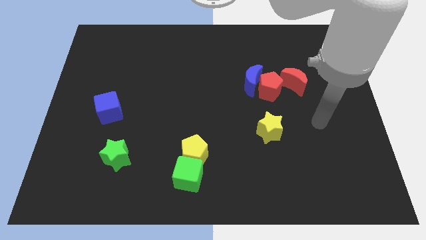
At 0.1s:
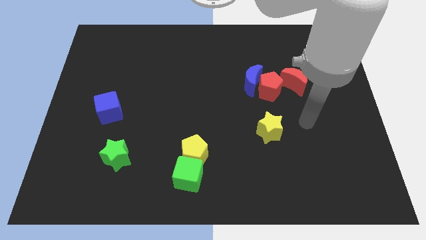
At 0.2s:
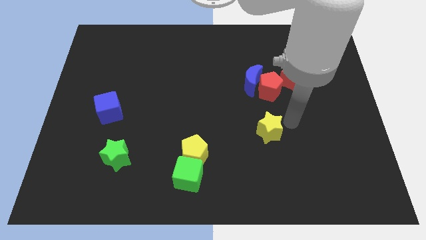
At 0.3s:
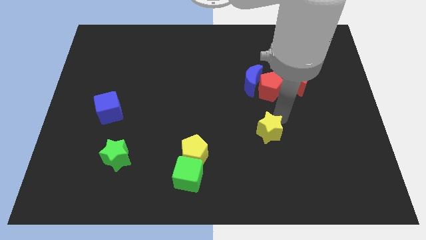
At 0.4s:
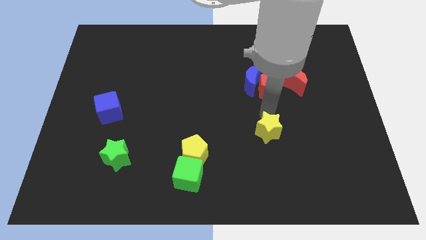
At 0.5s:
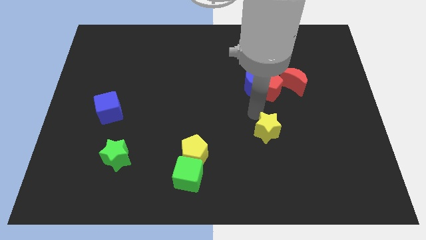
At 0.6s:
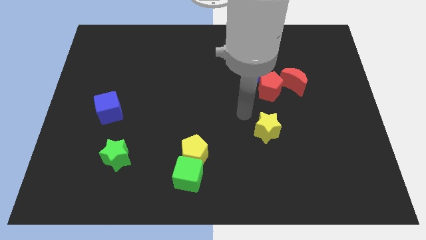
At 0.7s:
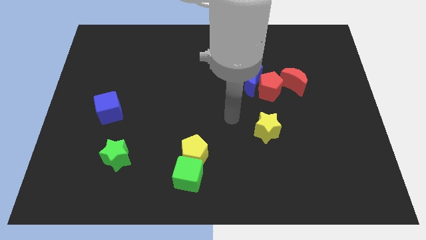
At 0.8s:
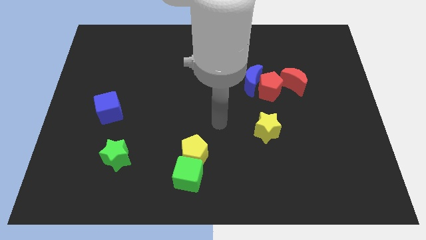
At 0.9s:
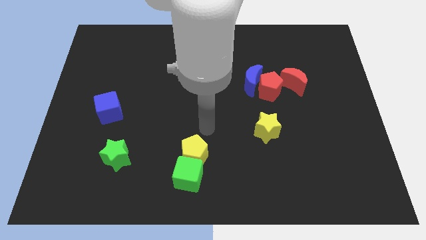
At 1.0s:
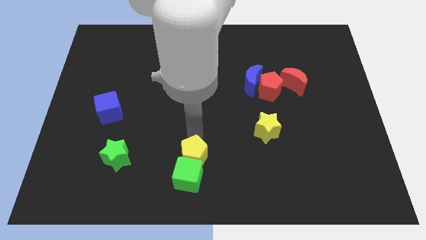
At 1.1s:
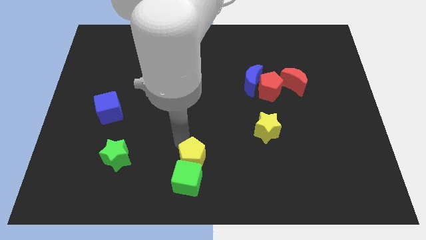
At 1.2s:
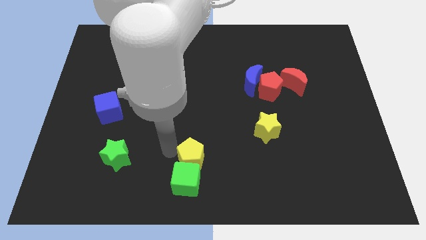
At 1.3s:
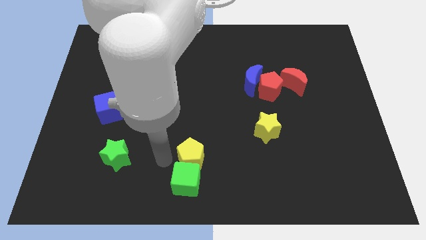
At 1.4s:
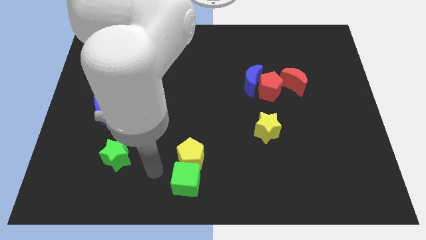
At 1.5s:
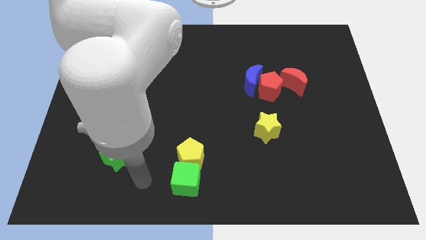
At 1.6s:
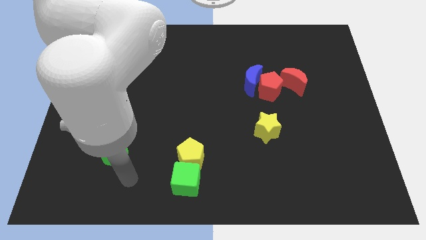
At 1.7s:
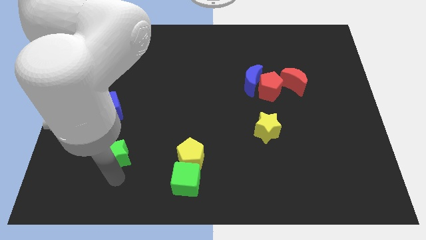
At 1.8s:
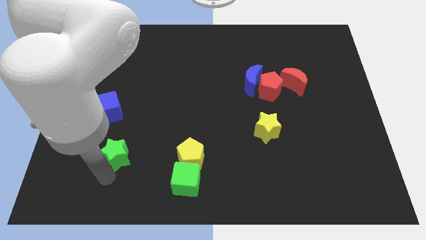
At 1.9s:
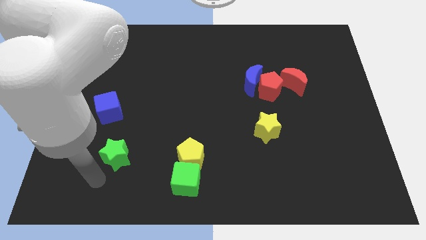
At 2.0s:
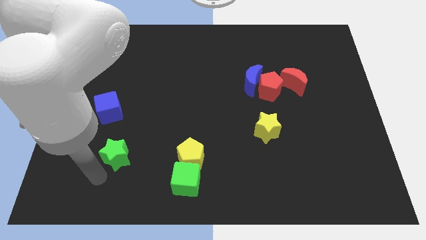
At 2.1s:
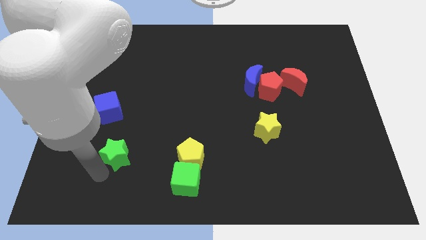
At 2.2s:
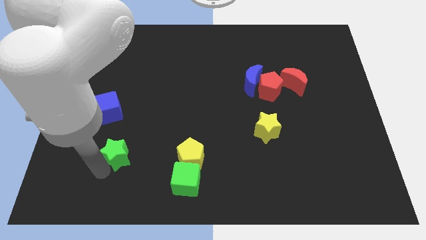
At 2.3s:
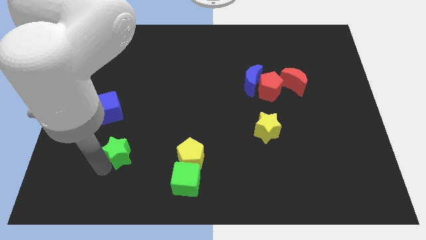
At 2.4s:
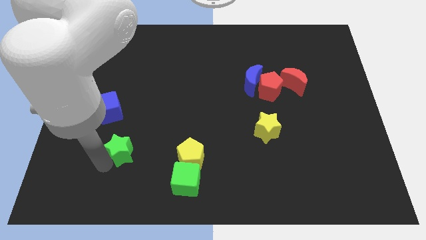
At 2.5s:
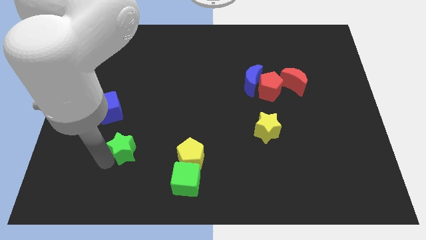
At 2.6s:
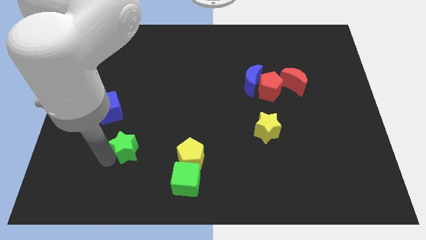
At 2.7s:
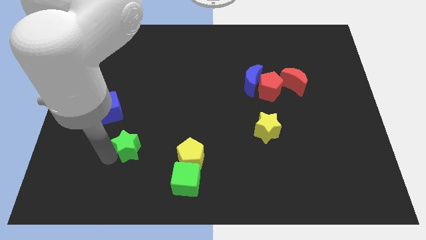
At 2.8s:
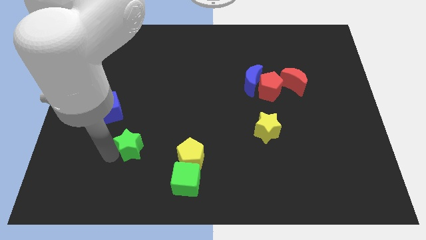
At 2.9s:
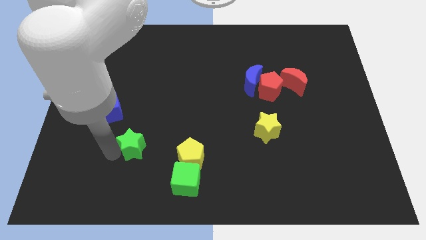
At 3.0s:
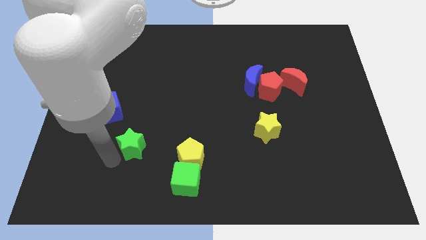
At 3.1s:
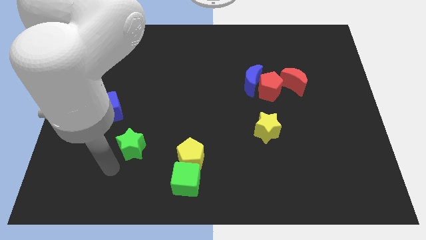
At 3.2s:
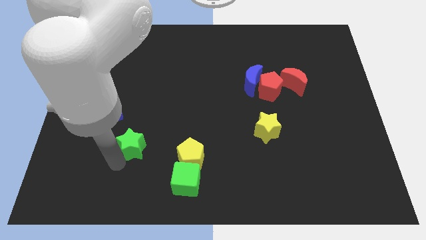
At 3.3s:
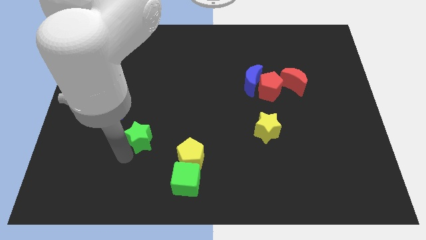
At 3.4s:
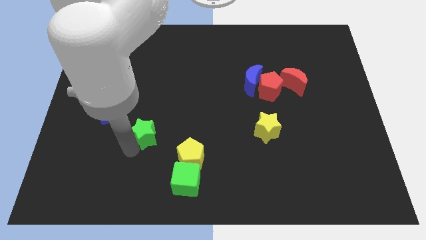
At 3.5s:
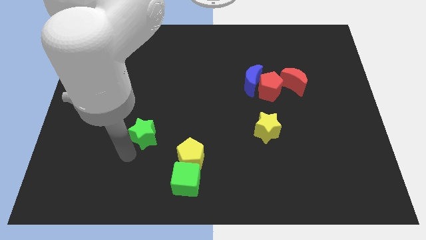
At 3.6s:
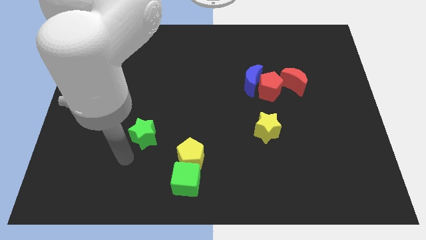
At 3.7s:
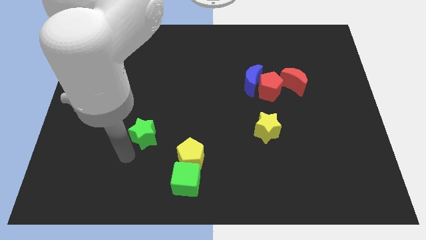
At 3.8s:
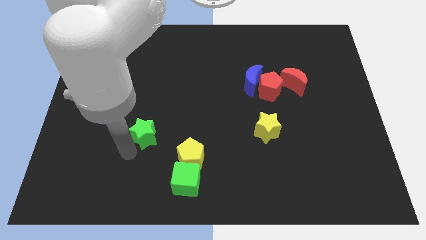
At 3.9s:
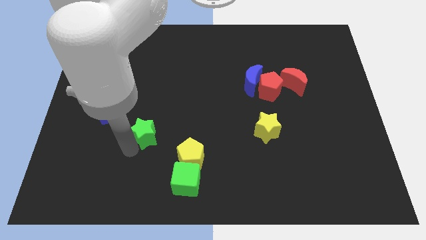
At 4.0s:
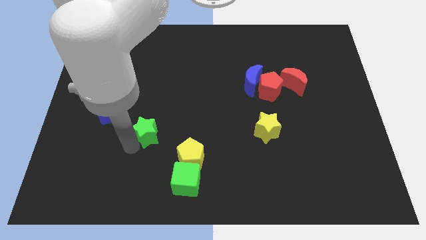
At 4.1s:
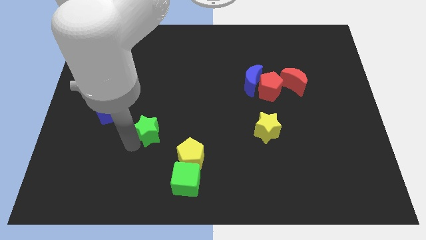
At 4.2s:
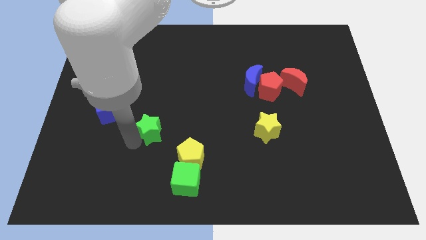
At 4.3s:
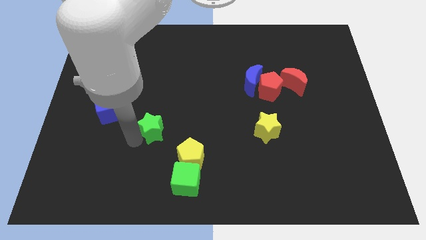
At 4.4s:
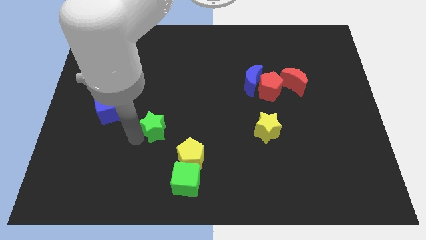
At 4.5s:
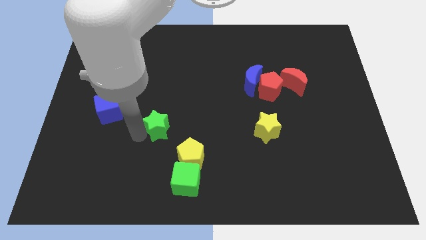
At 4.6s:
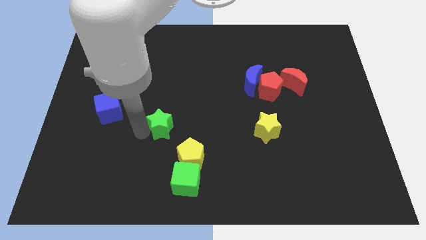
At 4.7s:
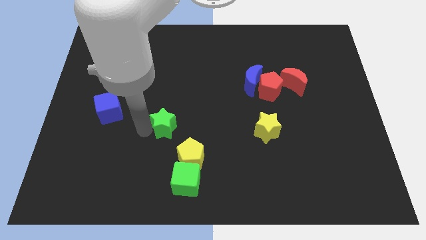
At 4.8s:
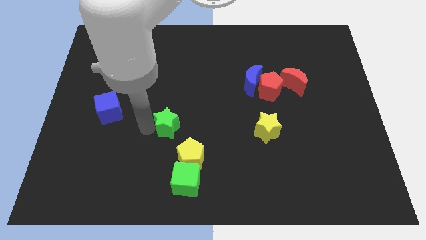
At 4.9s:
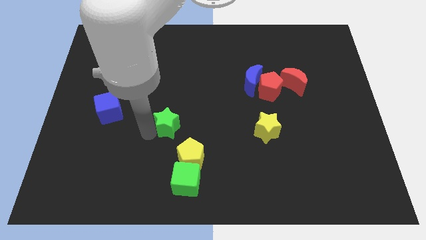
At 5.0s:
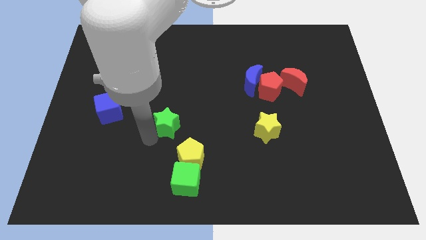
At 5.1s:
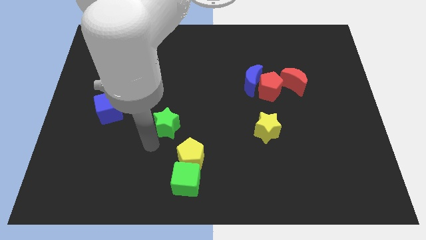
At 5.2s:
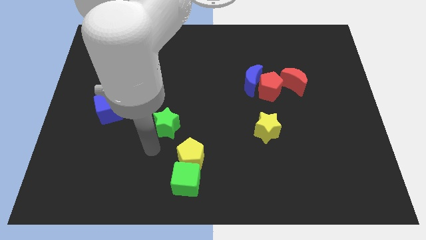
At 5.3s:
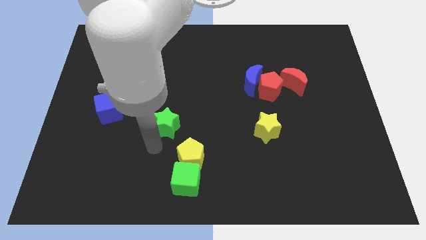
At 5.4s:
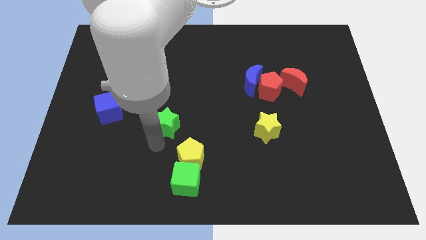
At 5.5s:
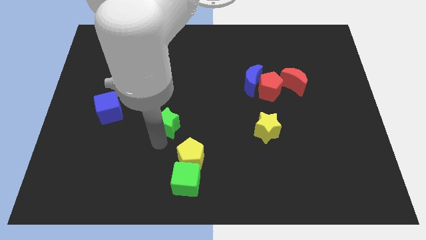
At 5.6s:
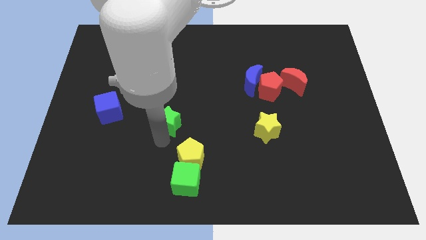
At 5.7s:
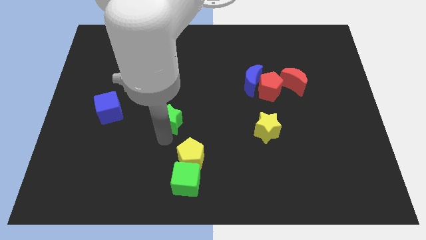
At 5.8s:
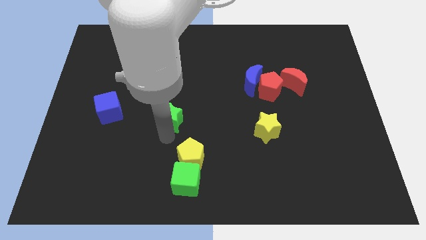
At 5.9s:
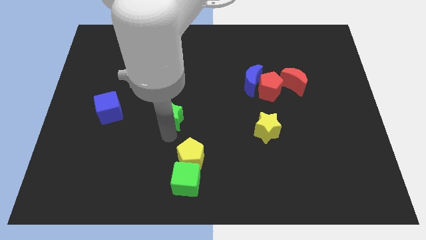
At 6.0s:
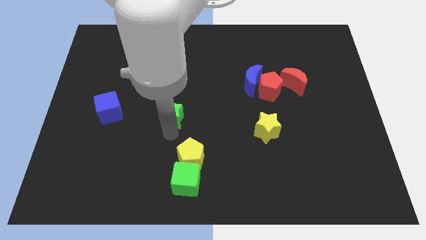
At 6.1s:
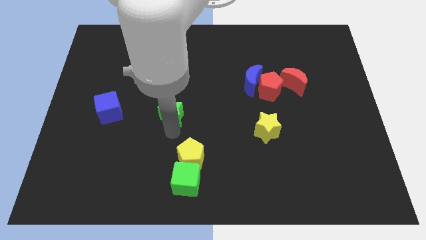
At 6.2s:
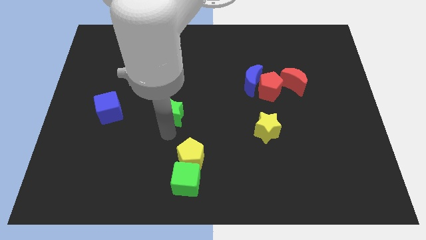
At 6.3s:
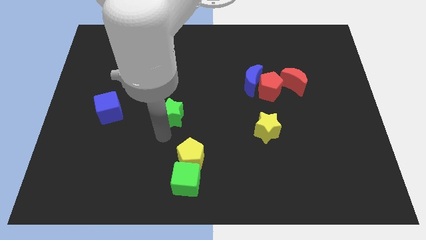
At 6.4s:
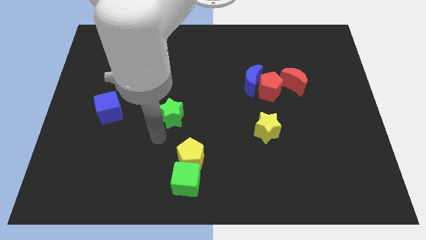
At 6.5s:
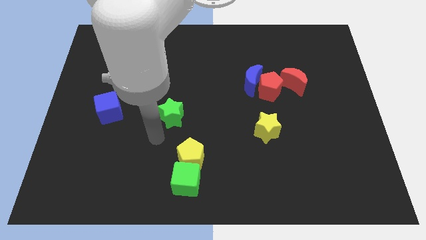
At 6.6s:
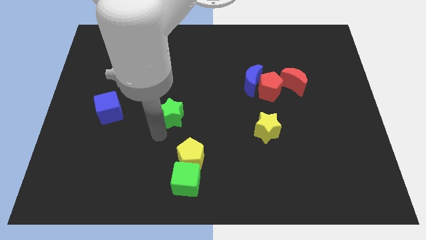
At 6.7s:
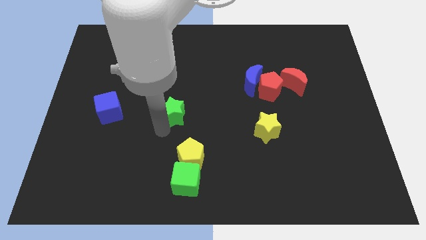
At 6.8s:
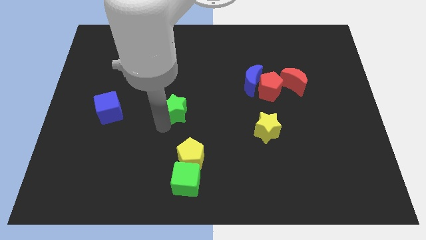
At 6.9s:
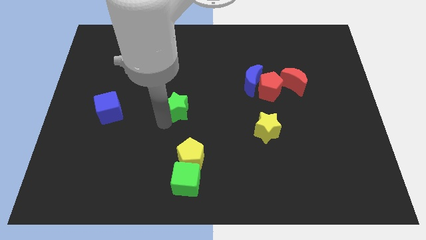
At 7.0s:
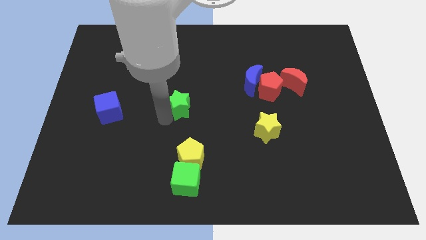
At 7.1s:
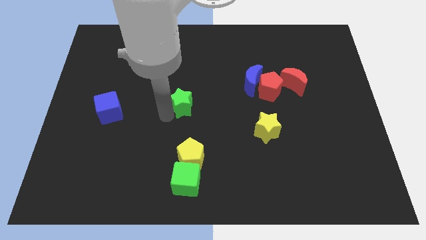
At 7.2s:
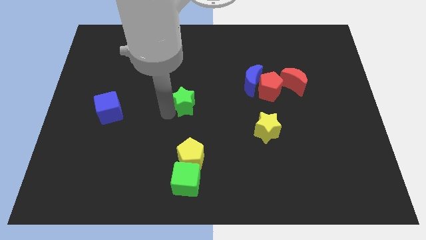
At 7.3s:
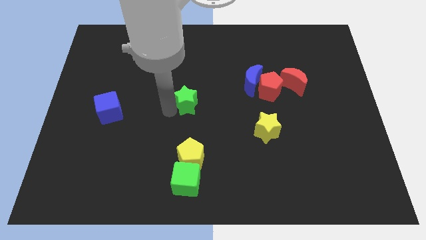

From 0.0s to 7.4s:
move the green star upwards and then to the right
